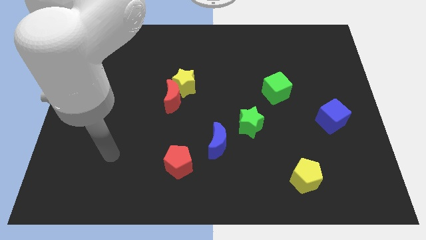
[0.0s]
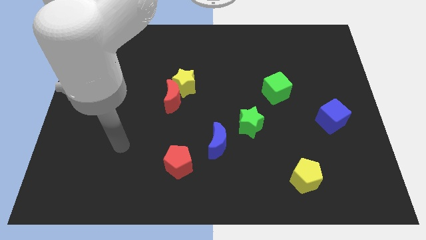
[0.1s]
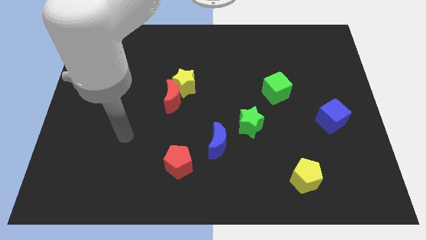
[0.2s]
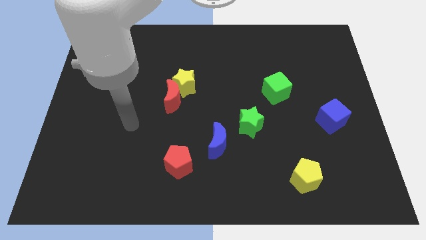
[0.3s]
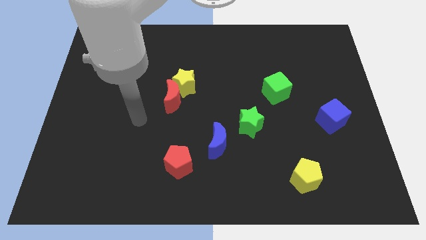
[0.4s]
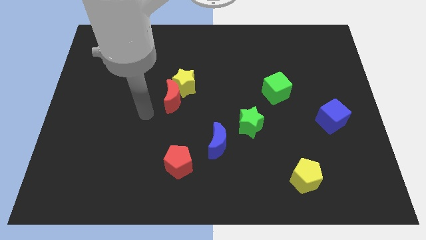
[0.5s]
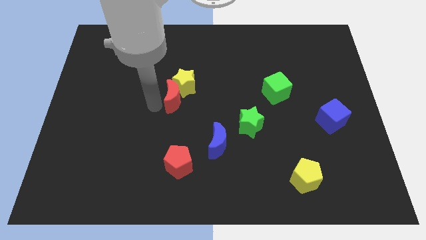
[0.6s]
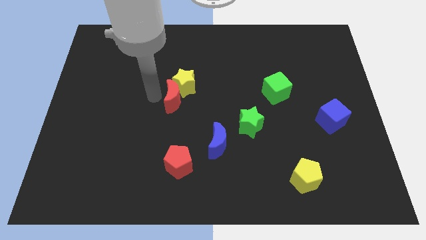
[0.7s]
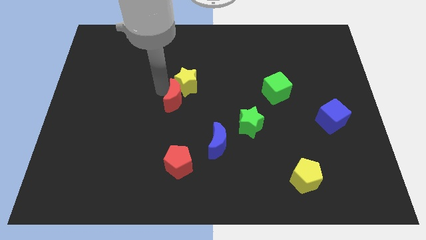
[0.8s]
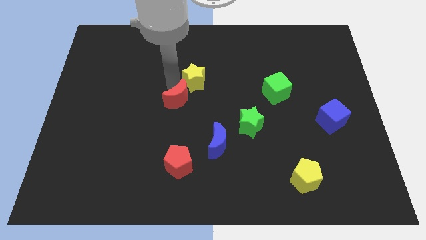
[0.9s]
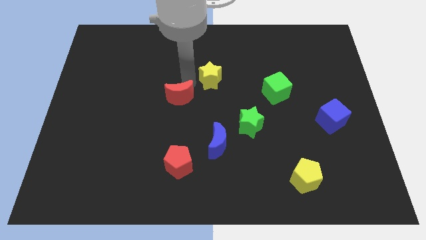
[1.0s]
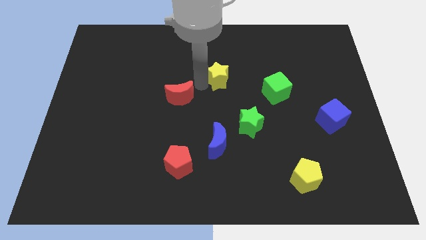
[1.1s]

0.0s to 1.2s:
pull the red moon apart from the yellow star

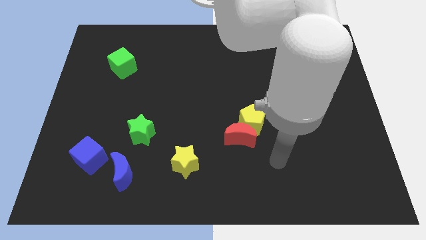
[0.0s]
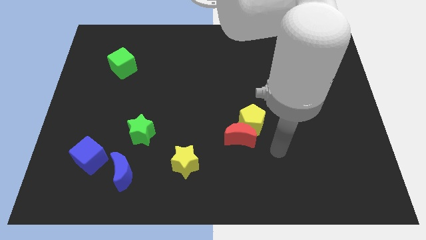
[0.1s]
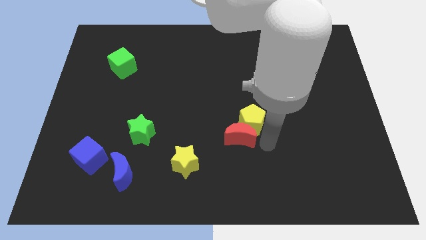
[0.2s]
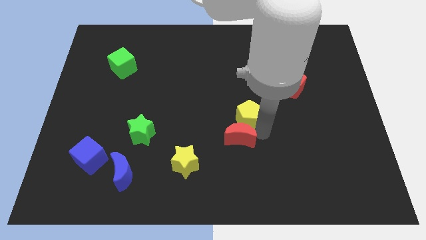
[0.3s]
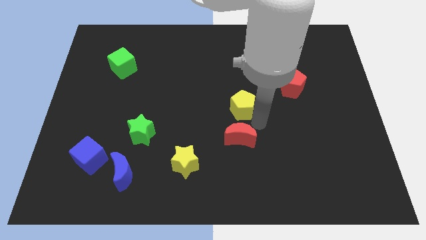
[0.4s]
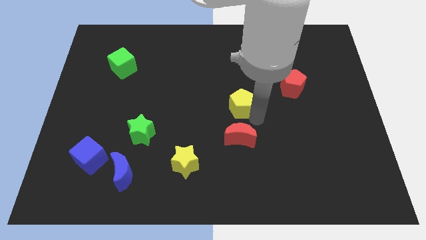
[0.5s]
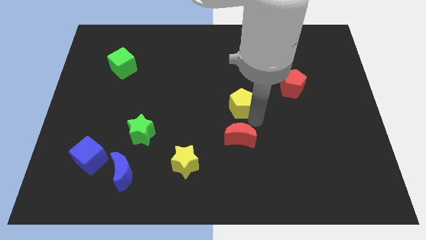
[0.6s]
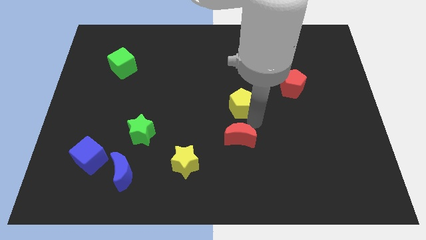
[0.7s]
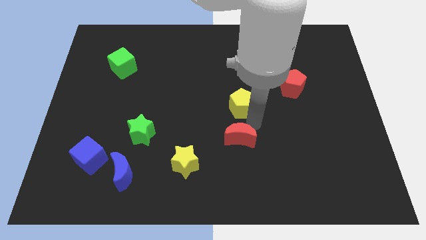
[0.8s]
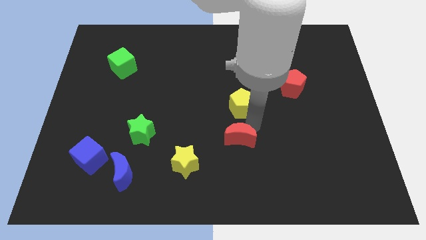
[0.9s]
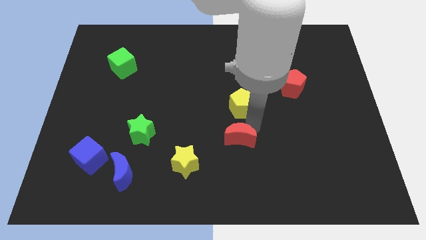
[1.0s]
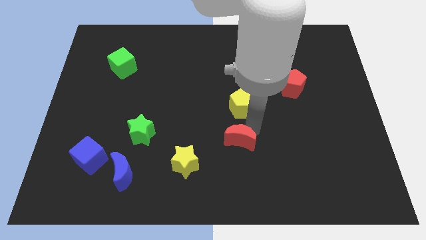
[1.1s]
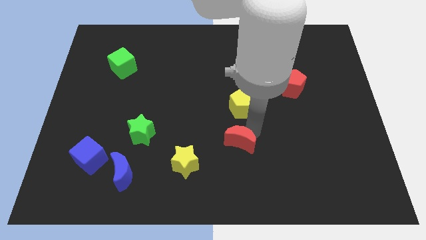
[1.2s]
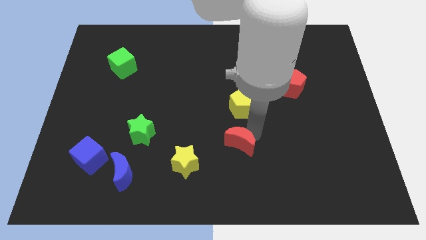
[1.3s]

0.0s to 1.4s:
move the red moon away from the yellow pentagon

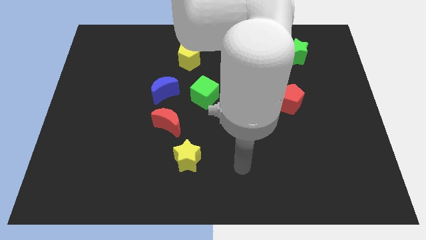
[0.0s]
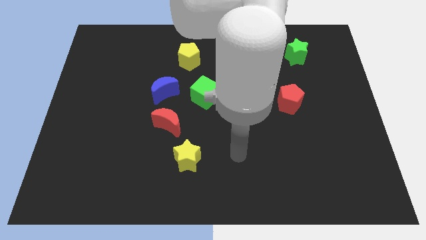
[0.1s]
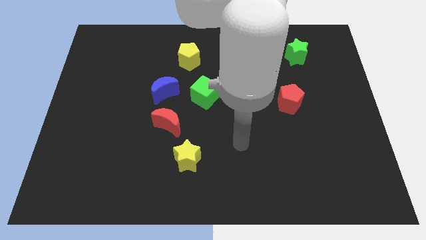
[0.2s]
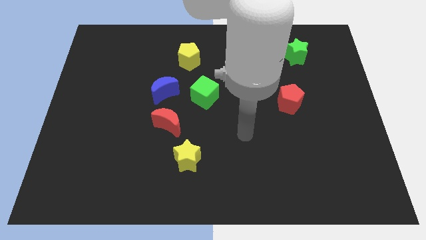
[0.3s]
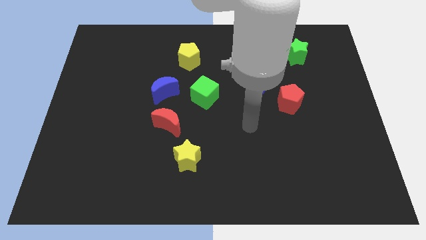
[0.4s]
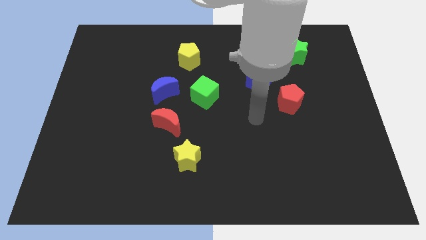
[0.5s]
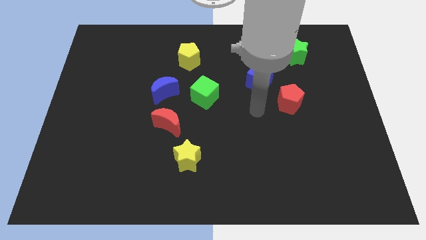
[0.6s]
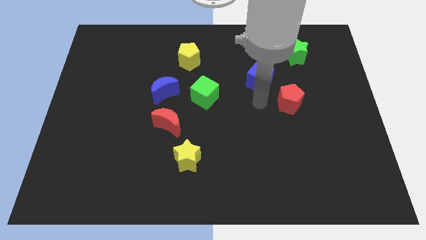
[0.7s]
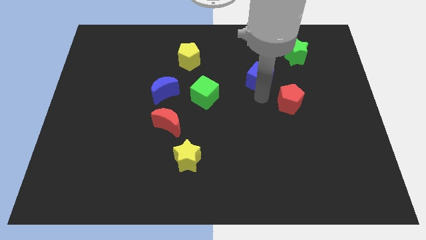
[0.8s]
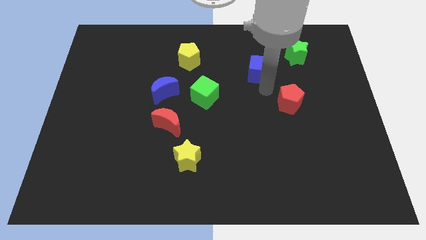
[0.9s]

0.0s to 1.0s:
pull the red pentagon apart from the blue cube

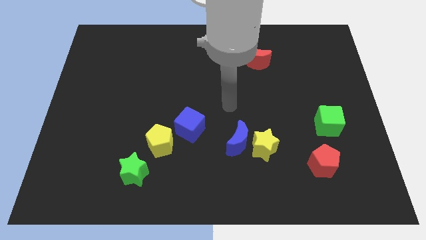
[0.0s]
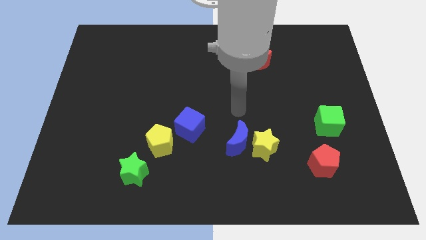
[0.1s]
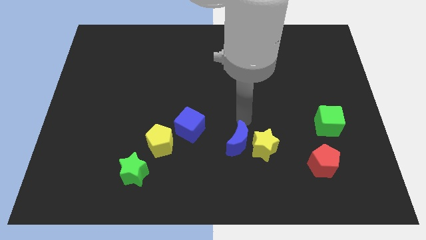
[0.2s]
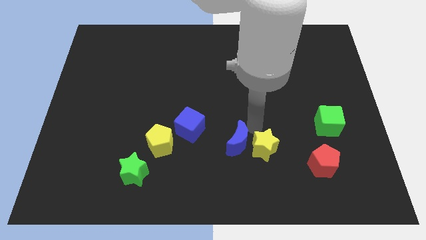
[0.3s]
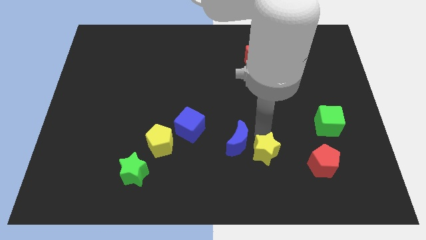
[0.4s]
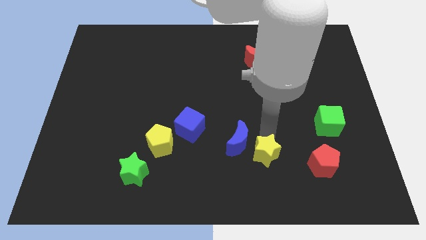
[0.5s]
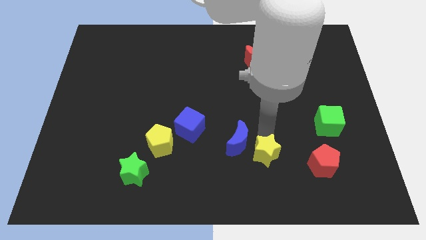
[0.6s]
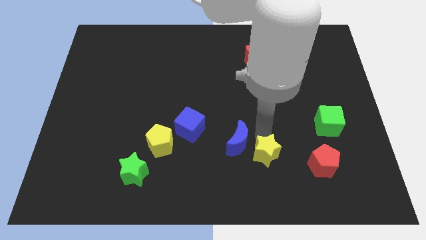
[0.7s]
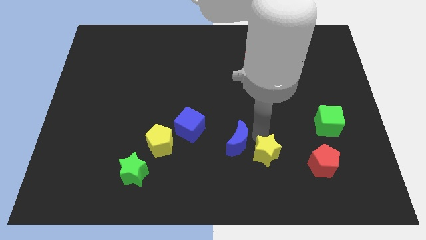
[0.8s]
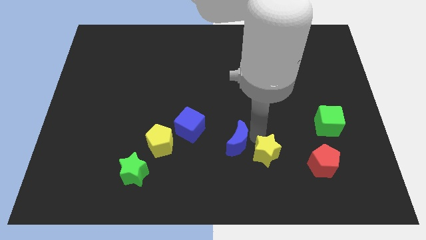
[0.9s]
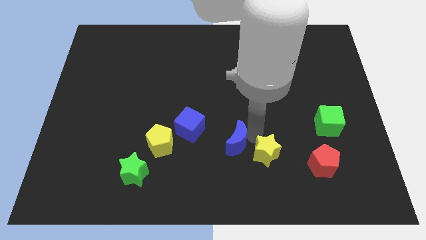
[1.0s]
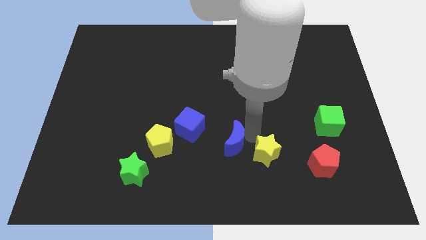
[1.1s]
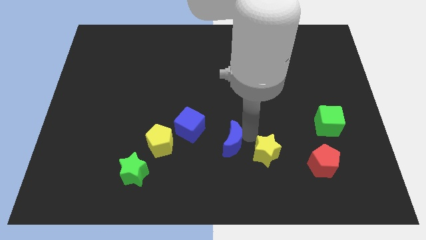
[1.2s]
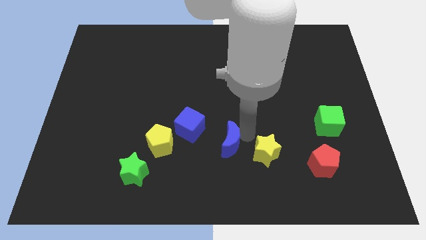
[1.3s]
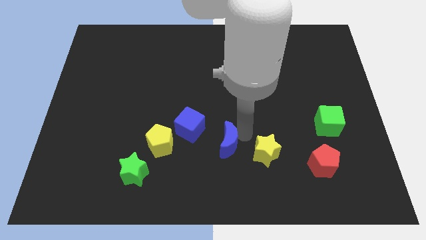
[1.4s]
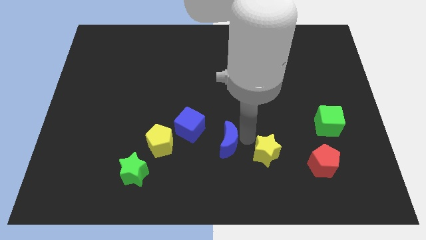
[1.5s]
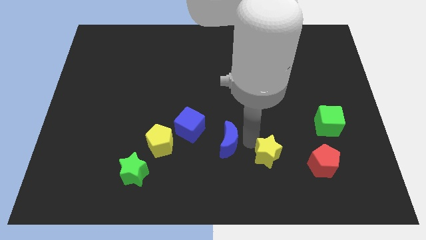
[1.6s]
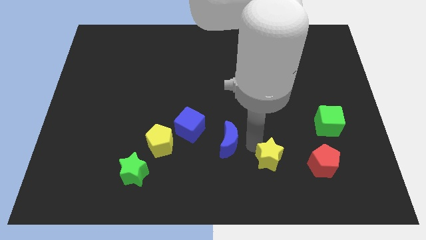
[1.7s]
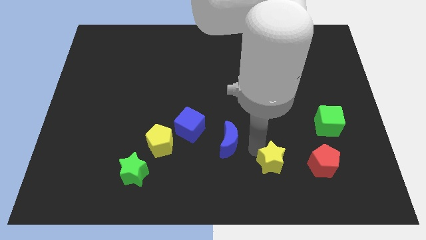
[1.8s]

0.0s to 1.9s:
separate the blue moon from the yellow star

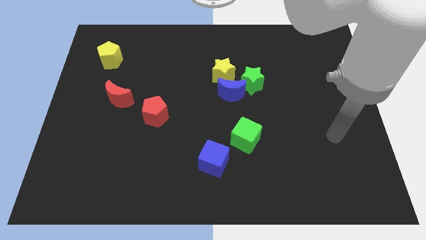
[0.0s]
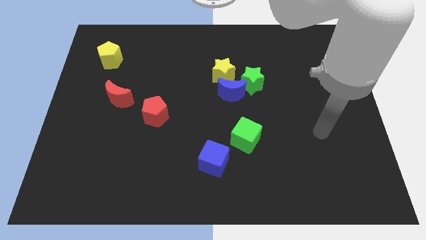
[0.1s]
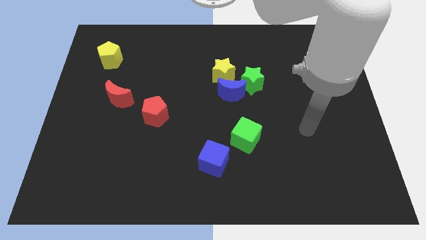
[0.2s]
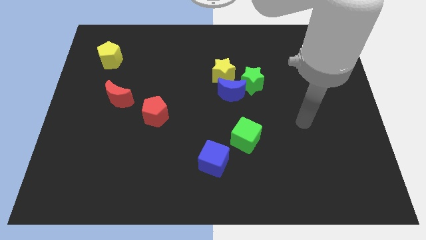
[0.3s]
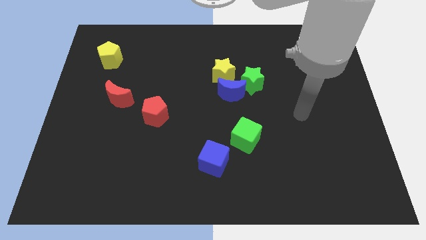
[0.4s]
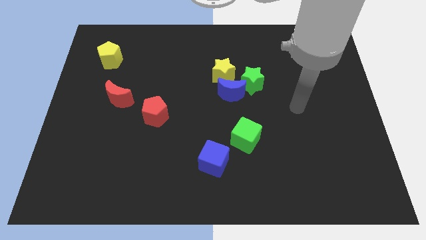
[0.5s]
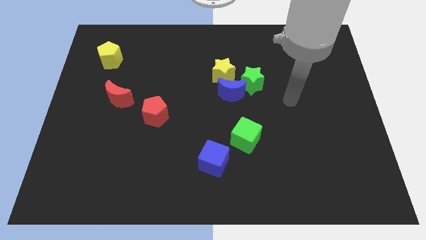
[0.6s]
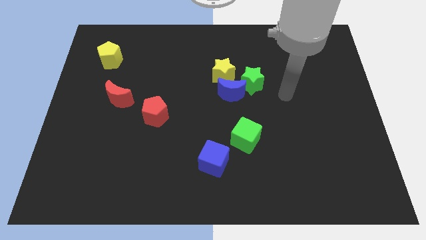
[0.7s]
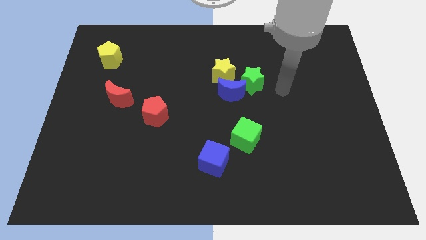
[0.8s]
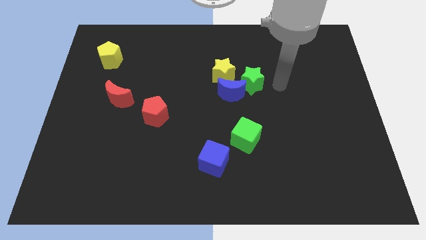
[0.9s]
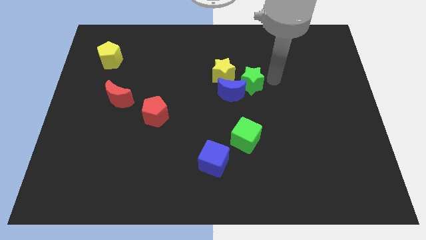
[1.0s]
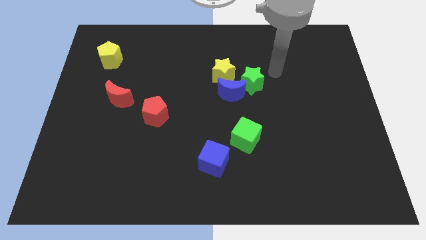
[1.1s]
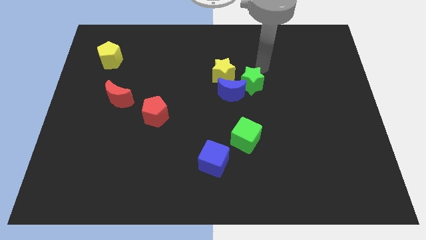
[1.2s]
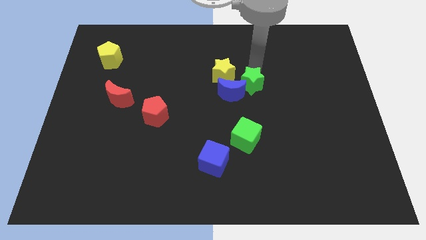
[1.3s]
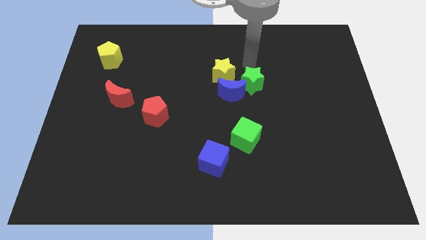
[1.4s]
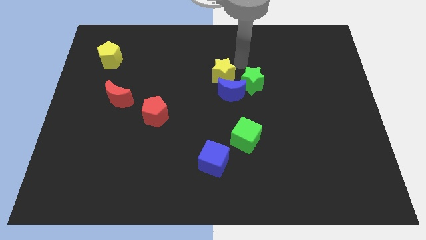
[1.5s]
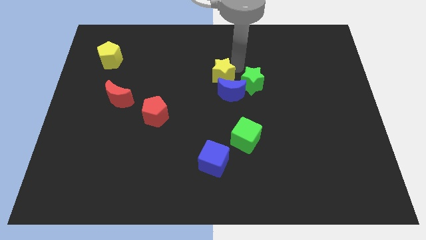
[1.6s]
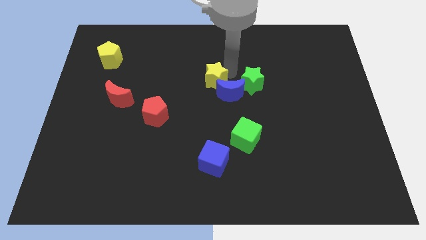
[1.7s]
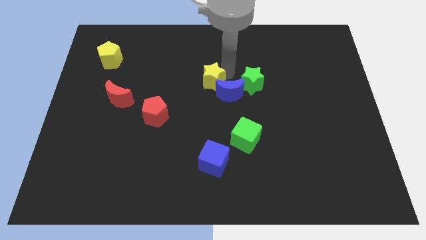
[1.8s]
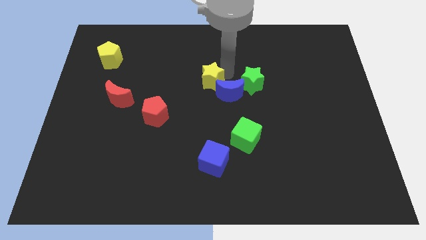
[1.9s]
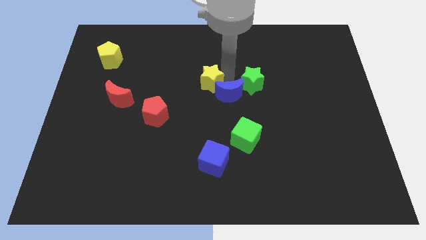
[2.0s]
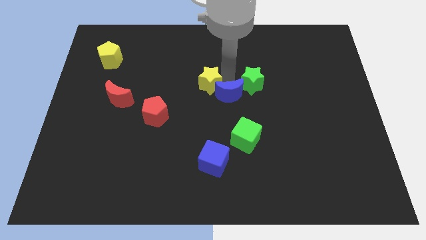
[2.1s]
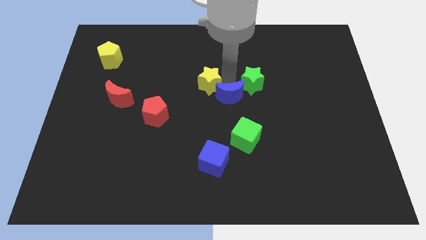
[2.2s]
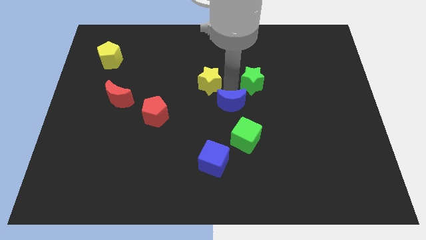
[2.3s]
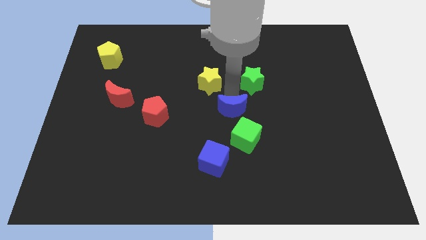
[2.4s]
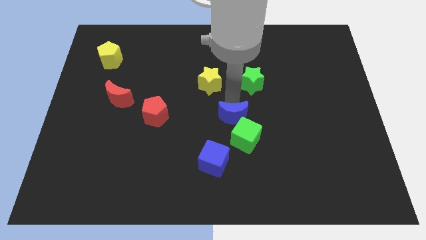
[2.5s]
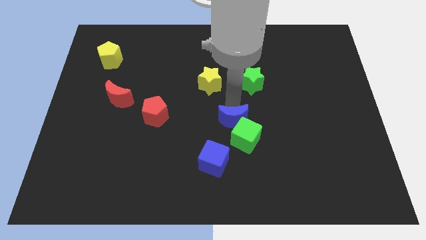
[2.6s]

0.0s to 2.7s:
move the blue moon away from the yellow star and green star

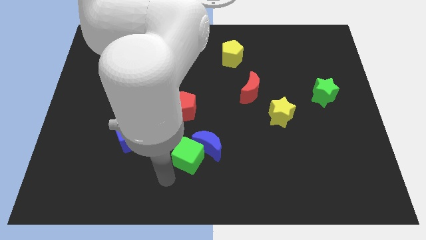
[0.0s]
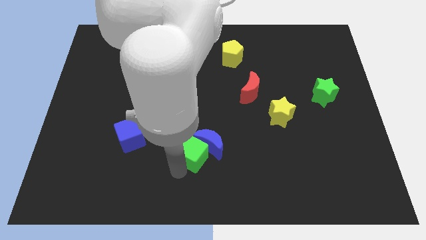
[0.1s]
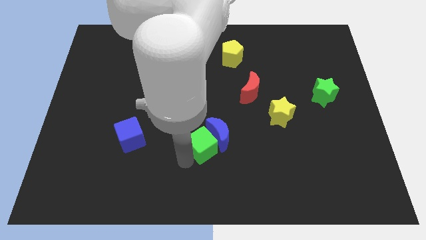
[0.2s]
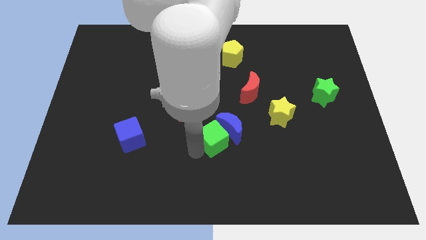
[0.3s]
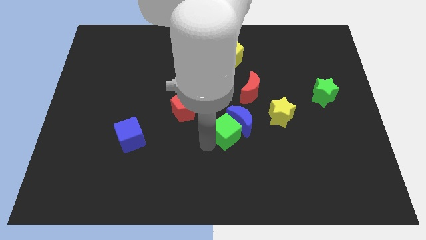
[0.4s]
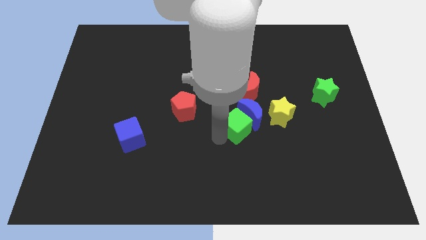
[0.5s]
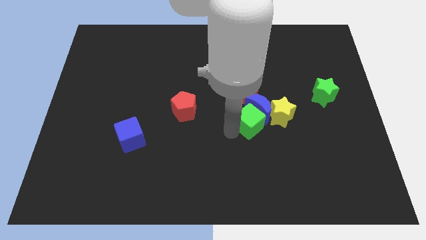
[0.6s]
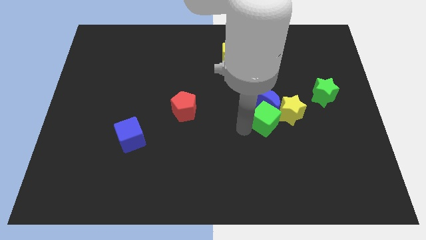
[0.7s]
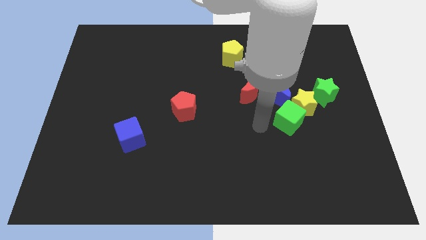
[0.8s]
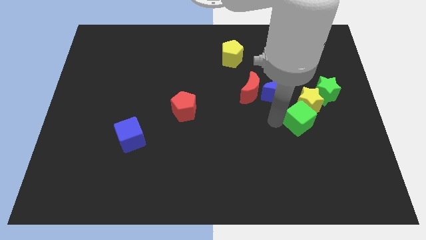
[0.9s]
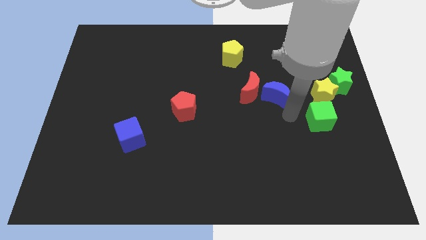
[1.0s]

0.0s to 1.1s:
move the blue moon away from the green cube

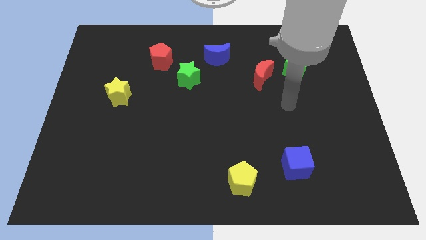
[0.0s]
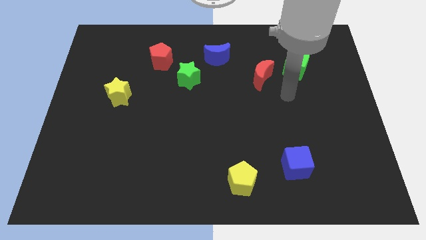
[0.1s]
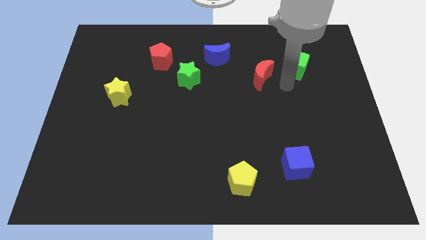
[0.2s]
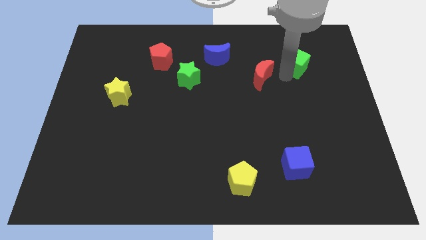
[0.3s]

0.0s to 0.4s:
pull the red moon apart from the green cube
